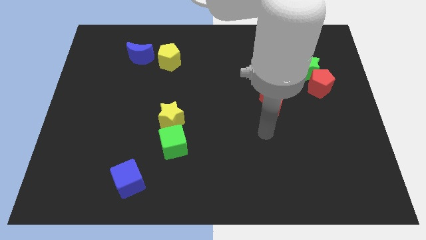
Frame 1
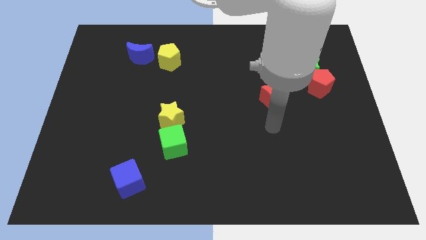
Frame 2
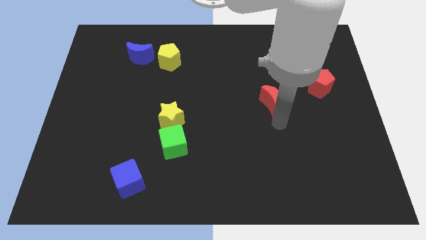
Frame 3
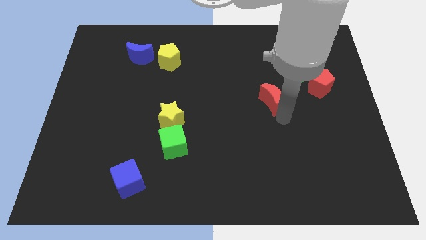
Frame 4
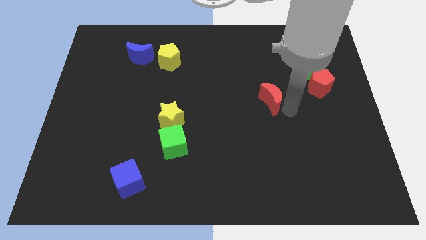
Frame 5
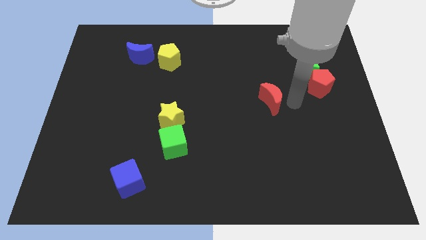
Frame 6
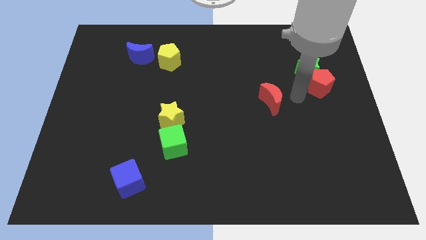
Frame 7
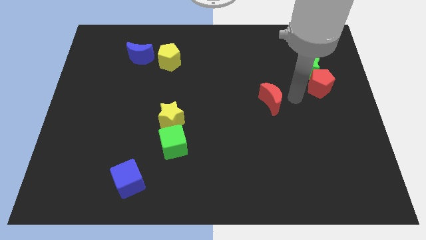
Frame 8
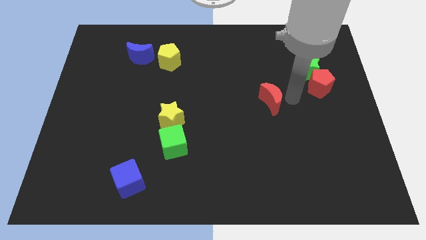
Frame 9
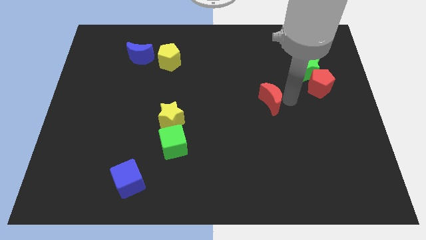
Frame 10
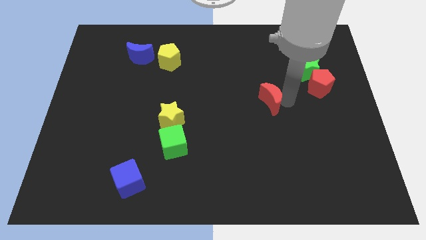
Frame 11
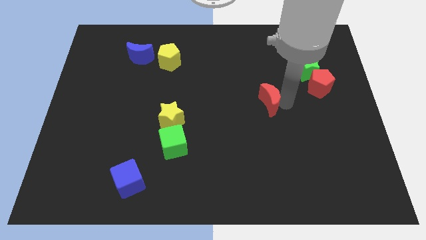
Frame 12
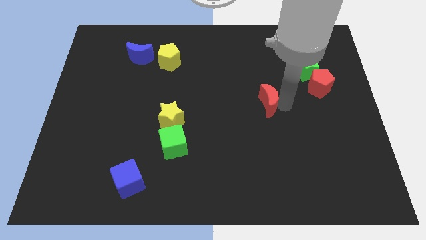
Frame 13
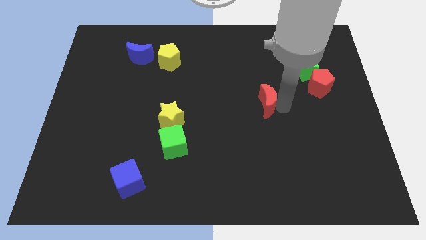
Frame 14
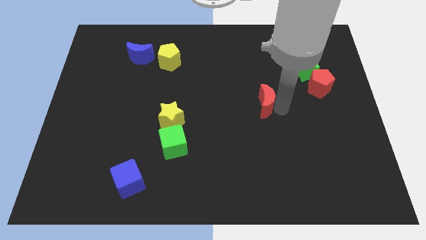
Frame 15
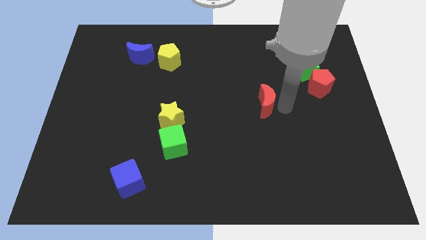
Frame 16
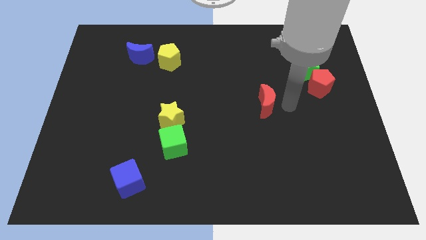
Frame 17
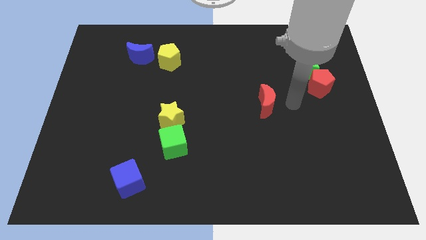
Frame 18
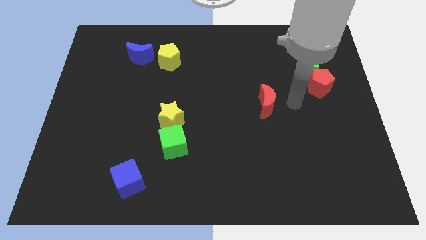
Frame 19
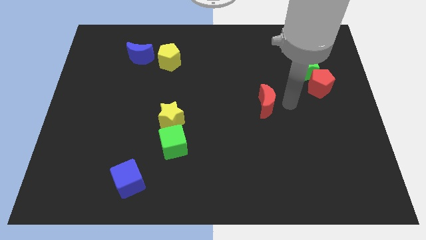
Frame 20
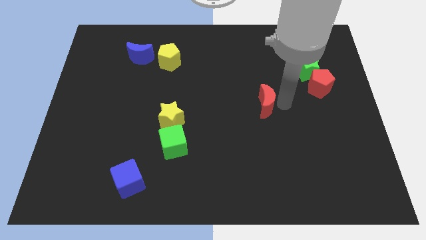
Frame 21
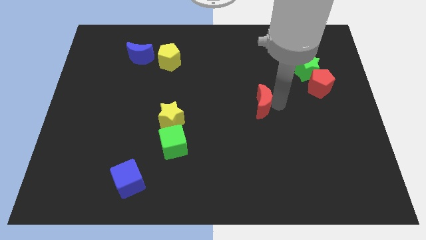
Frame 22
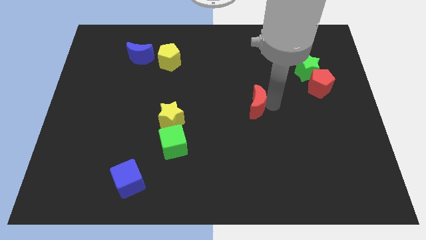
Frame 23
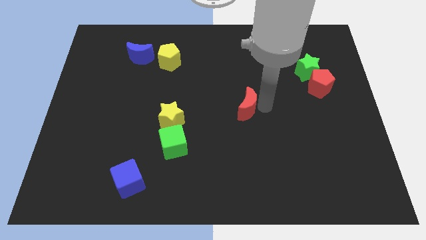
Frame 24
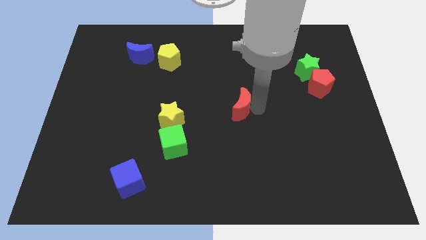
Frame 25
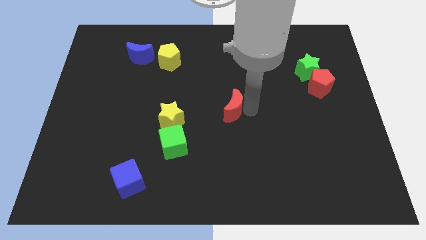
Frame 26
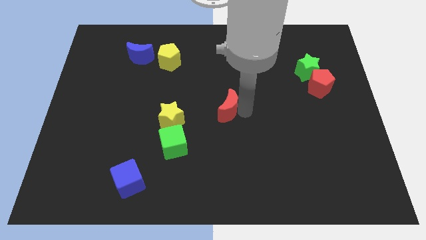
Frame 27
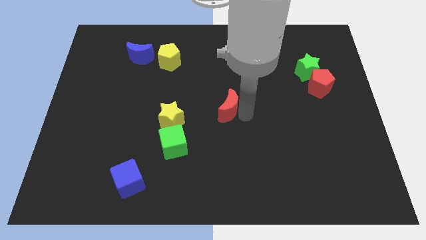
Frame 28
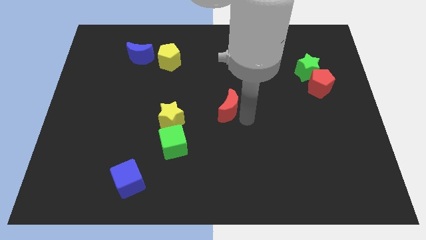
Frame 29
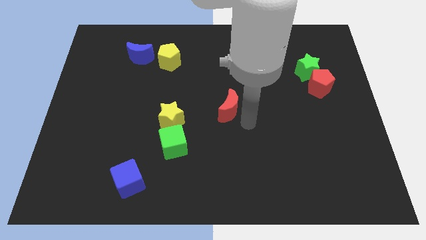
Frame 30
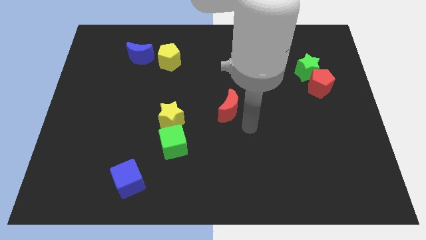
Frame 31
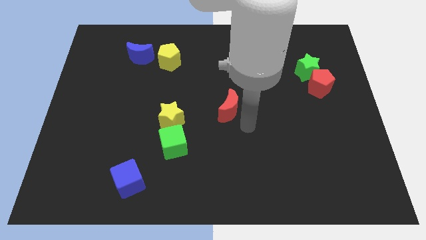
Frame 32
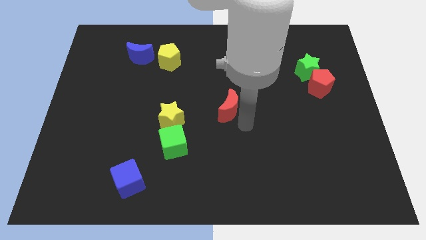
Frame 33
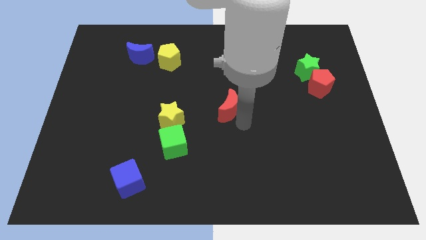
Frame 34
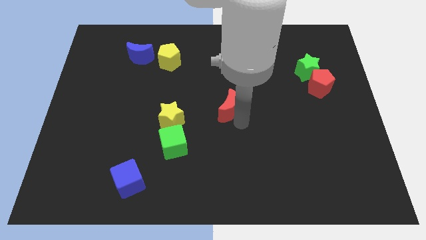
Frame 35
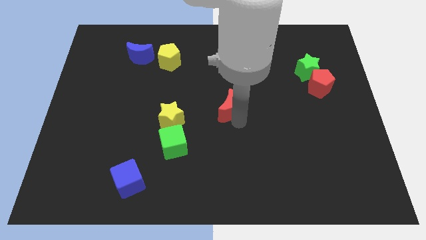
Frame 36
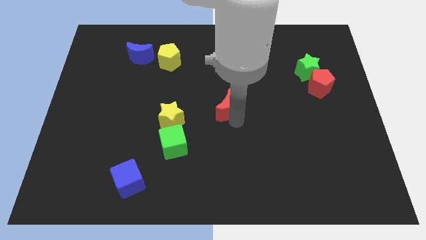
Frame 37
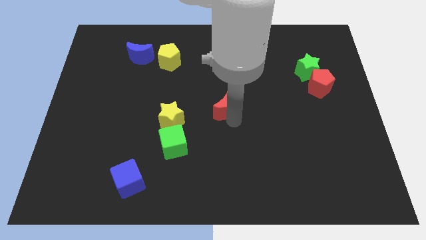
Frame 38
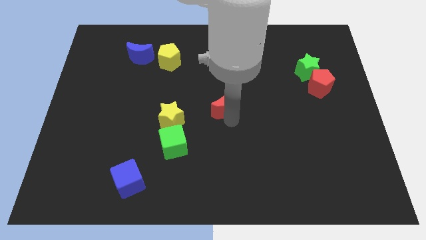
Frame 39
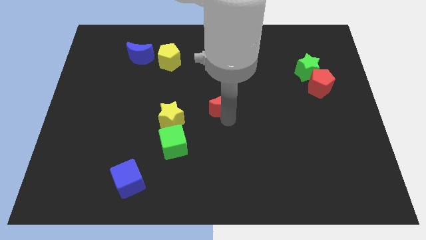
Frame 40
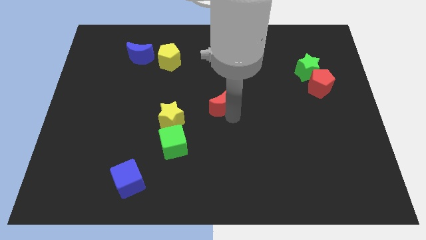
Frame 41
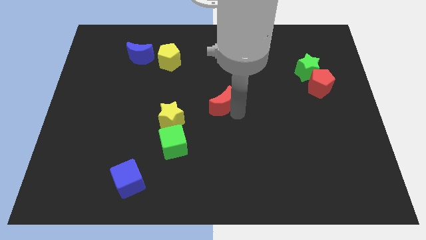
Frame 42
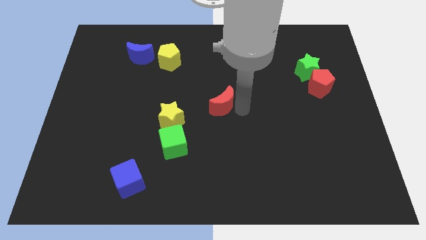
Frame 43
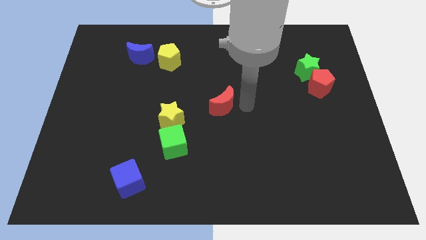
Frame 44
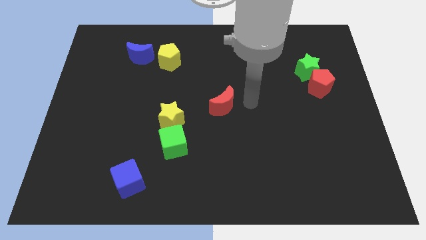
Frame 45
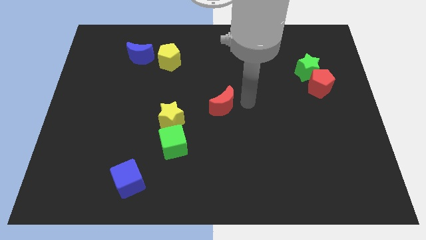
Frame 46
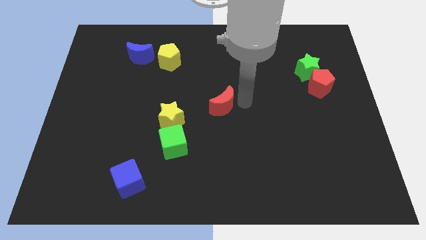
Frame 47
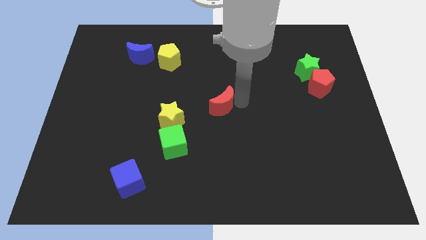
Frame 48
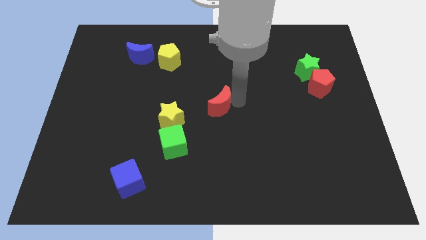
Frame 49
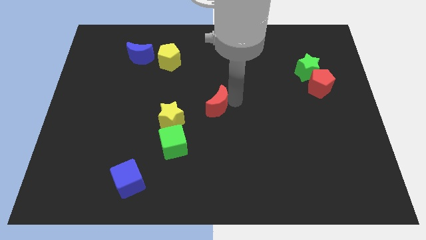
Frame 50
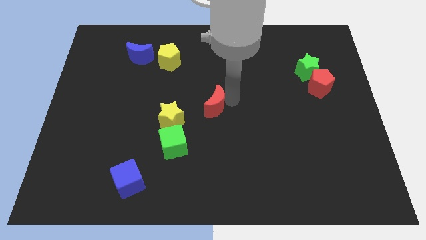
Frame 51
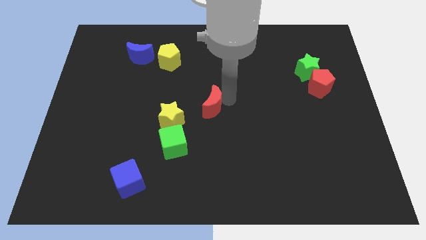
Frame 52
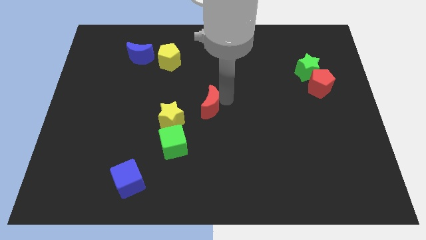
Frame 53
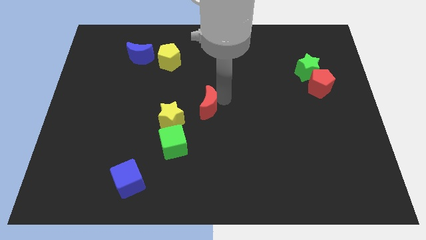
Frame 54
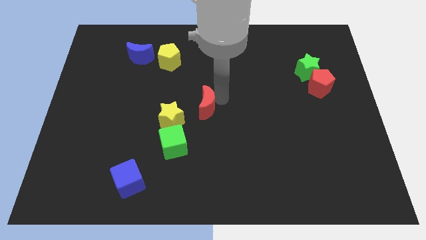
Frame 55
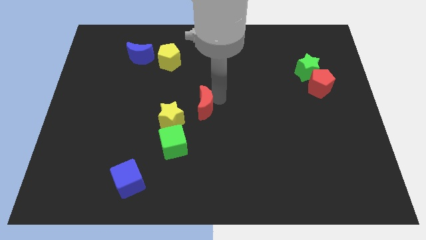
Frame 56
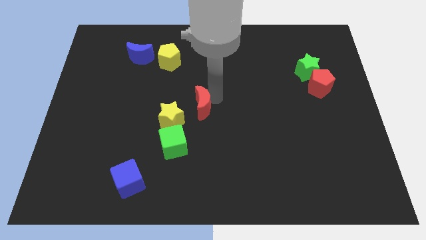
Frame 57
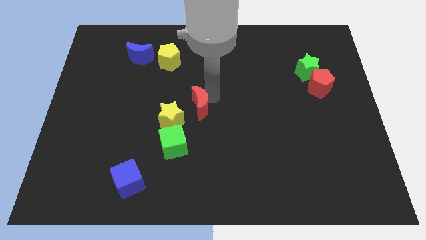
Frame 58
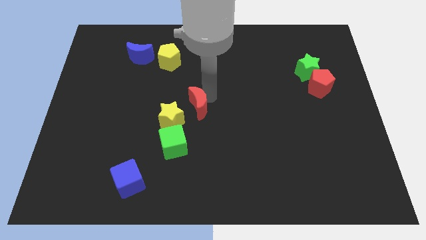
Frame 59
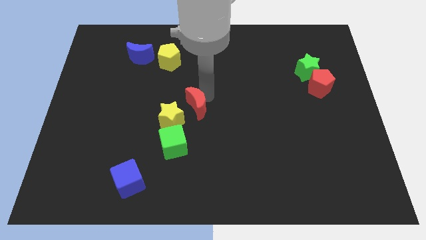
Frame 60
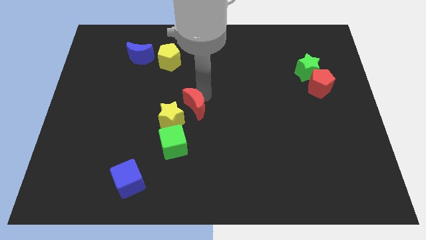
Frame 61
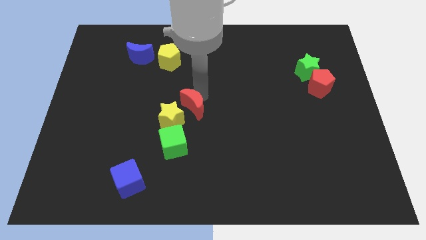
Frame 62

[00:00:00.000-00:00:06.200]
slide the red moon to the yellow star

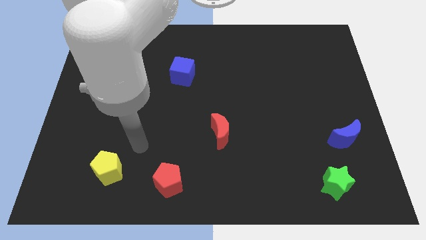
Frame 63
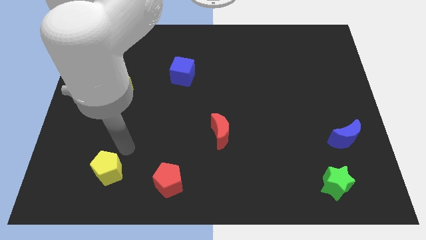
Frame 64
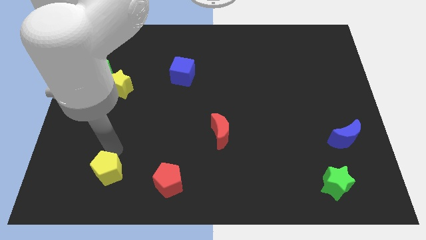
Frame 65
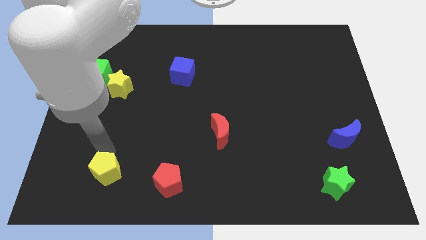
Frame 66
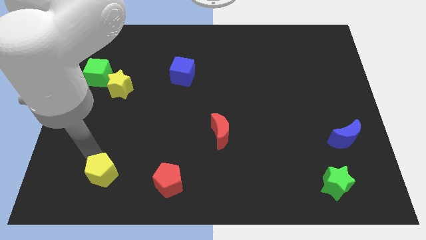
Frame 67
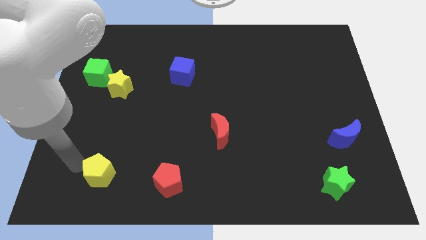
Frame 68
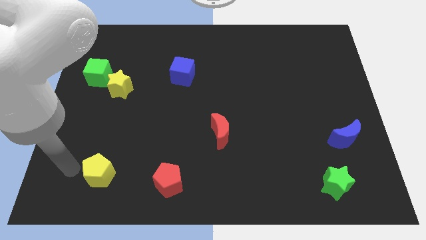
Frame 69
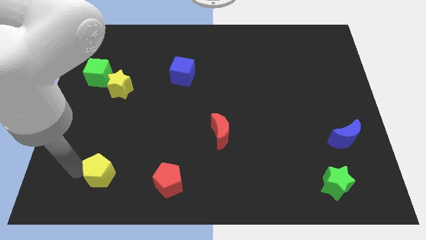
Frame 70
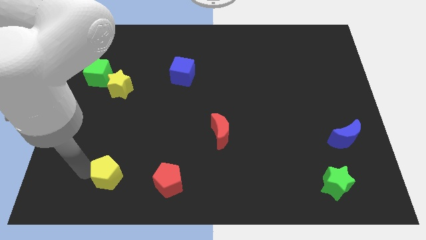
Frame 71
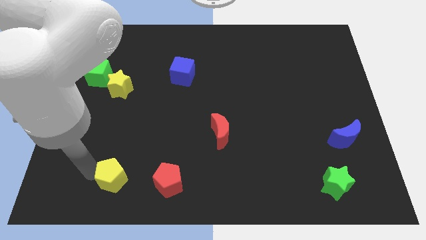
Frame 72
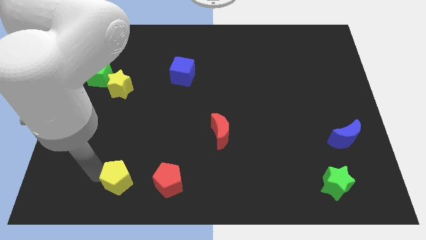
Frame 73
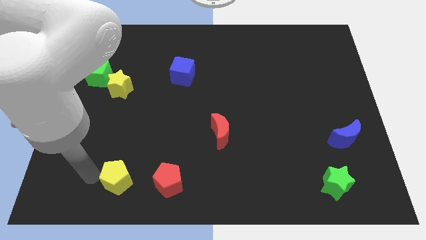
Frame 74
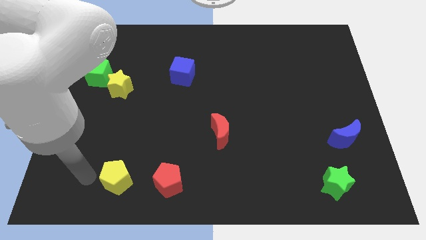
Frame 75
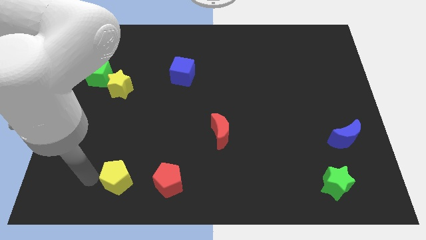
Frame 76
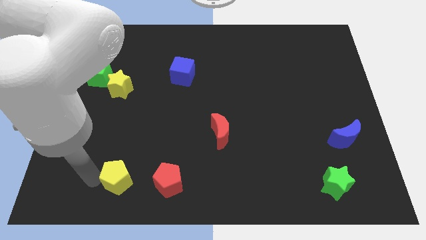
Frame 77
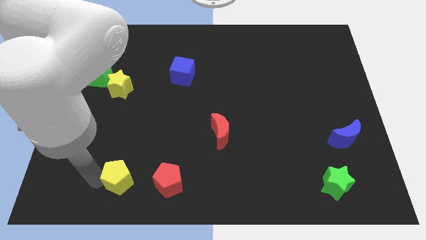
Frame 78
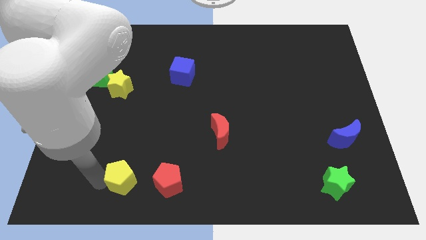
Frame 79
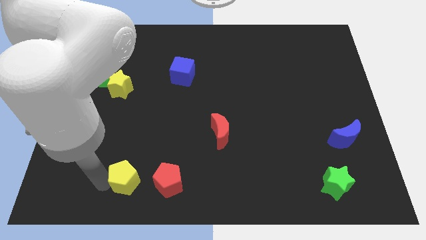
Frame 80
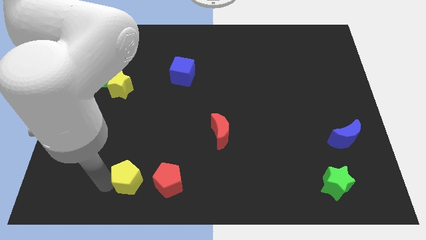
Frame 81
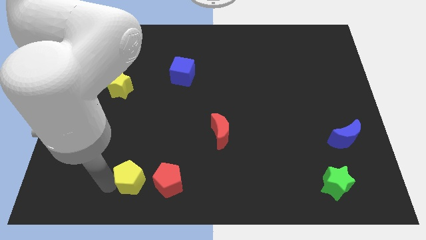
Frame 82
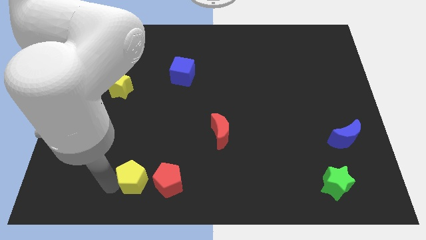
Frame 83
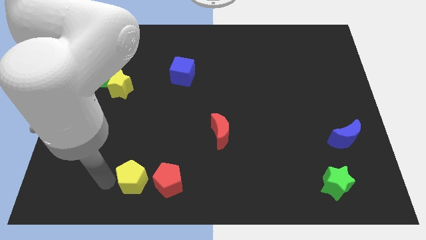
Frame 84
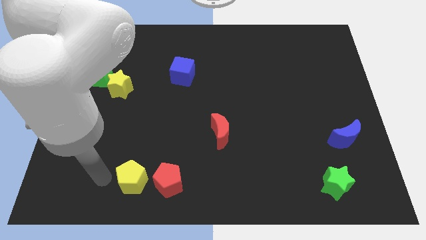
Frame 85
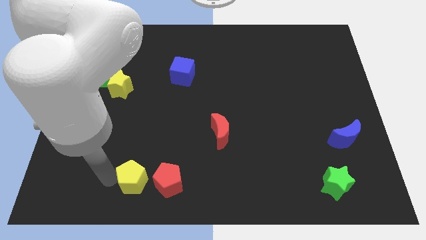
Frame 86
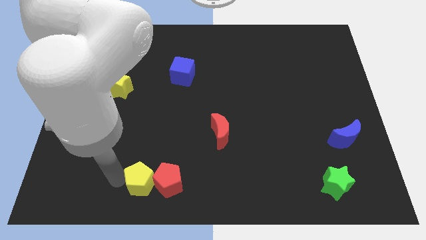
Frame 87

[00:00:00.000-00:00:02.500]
put the yellow pentagon towards the red pentagon
